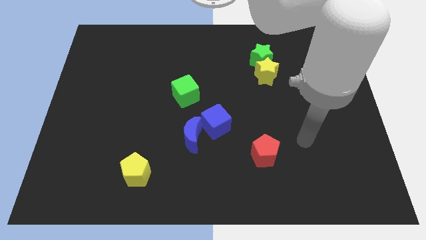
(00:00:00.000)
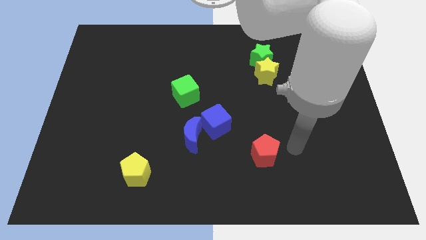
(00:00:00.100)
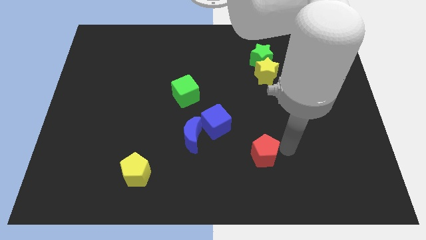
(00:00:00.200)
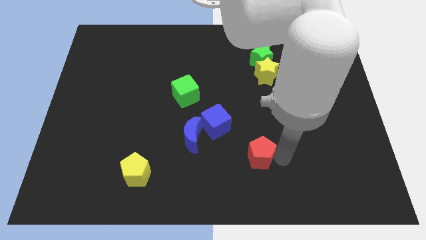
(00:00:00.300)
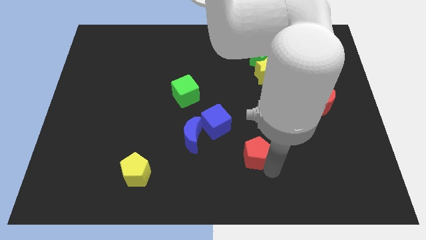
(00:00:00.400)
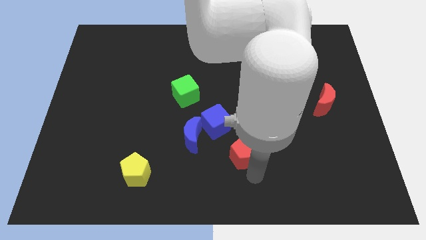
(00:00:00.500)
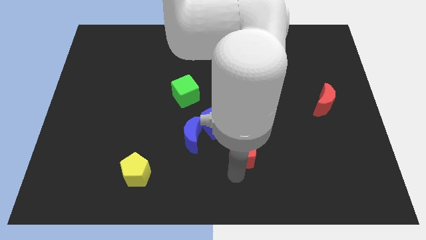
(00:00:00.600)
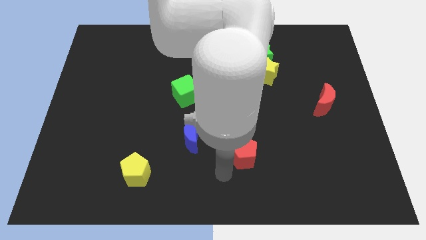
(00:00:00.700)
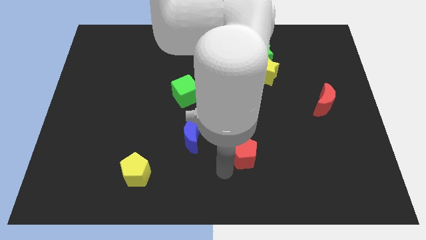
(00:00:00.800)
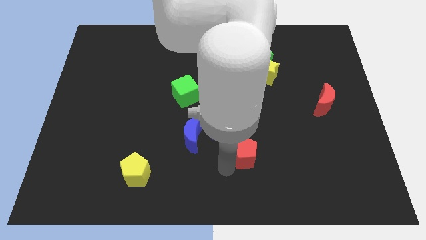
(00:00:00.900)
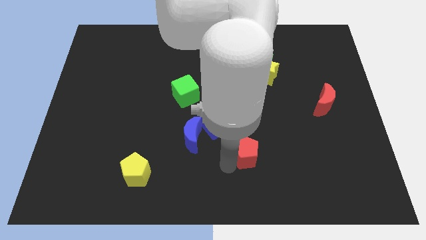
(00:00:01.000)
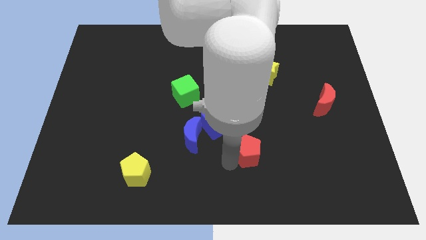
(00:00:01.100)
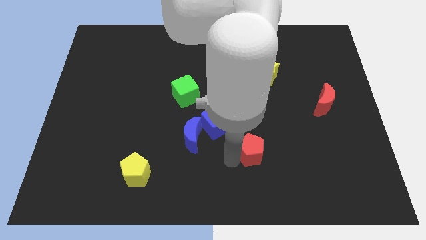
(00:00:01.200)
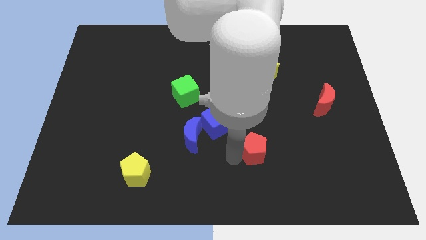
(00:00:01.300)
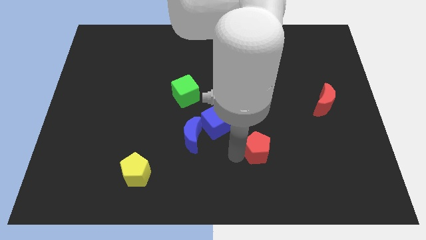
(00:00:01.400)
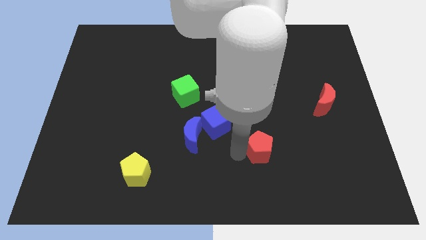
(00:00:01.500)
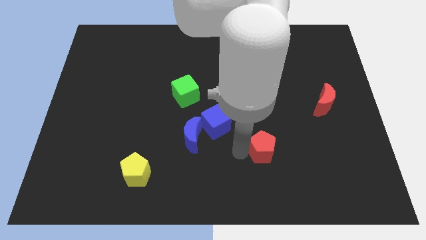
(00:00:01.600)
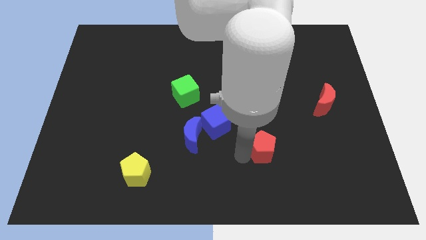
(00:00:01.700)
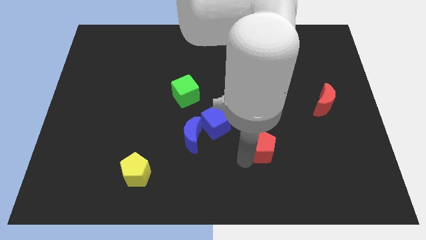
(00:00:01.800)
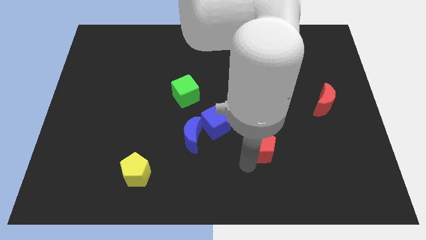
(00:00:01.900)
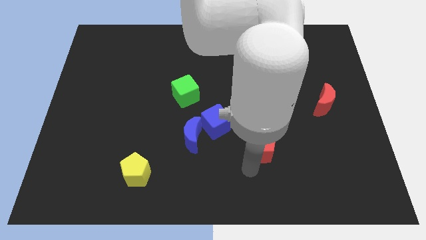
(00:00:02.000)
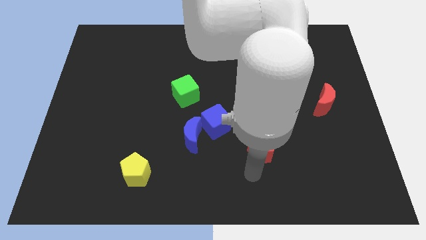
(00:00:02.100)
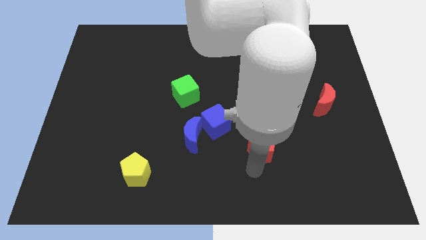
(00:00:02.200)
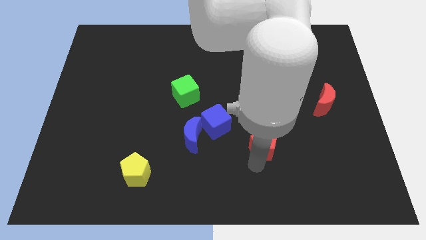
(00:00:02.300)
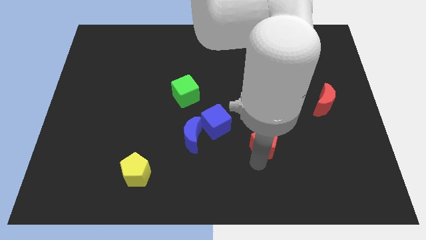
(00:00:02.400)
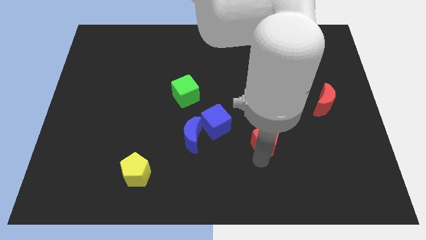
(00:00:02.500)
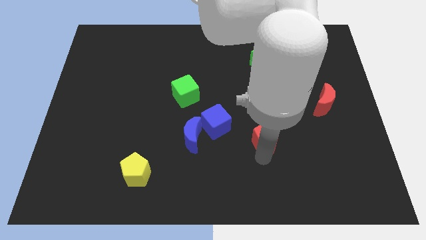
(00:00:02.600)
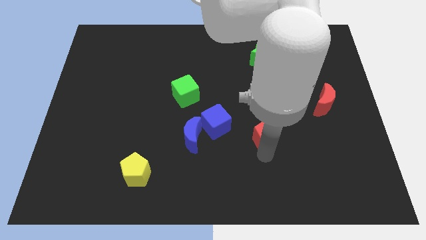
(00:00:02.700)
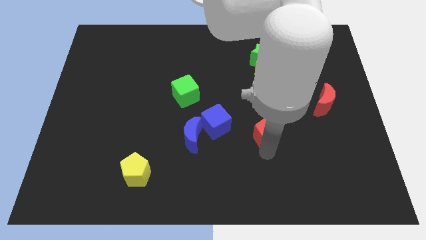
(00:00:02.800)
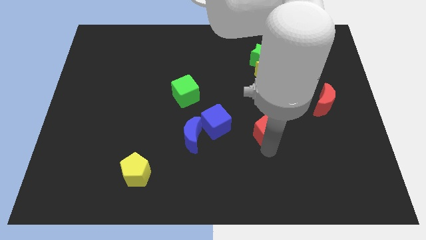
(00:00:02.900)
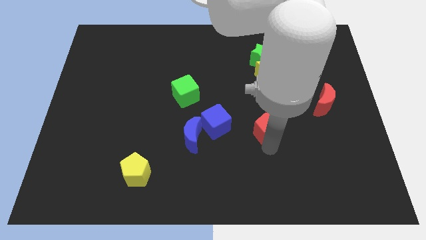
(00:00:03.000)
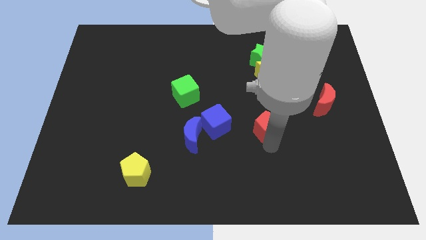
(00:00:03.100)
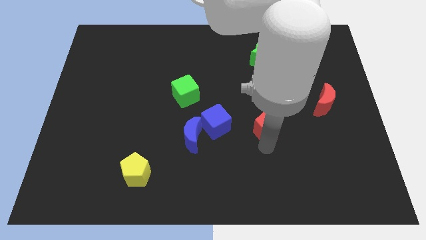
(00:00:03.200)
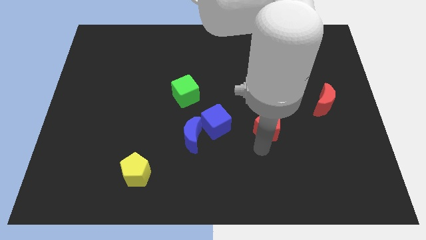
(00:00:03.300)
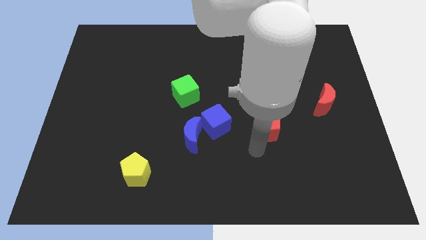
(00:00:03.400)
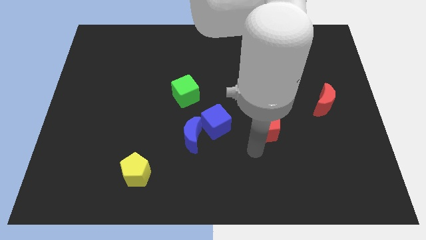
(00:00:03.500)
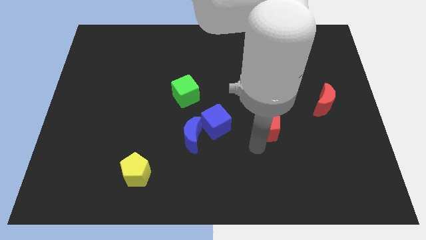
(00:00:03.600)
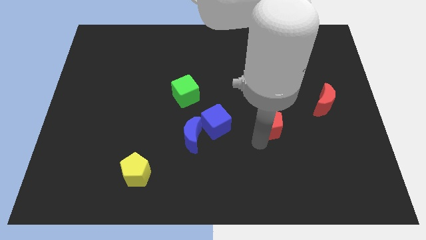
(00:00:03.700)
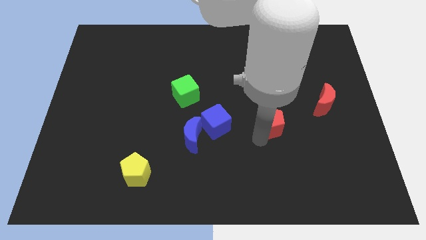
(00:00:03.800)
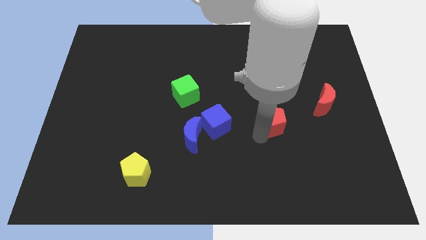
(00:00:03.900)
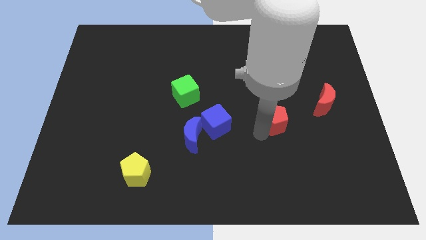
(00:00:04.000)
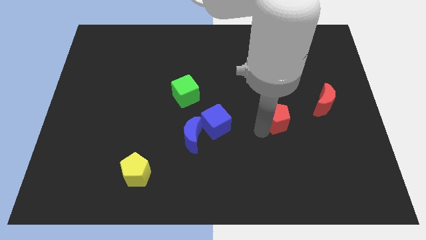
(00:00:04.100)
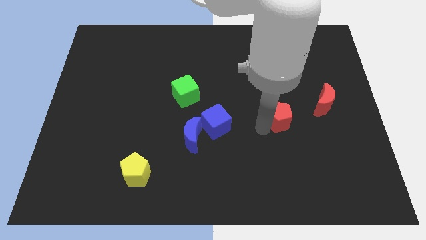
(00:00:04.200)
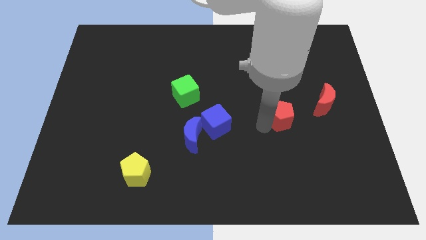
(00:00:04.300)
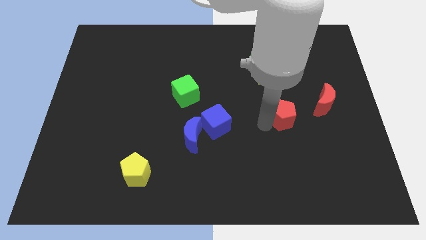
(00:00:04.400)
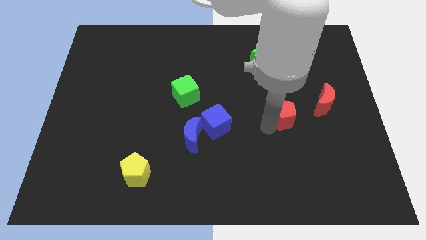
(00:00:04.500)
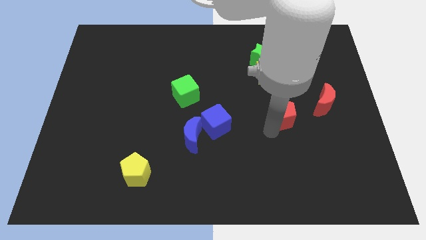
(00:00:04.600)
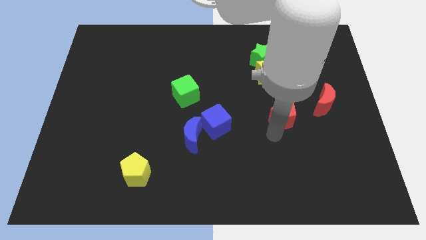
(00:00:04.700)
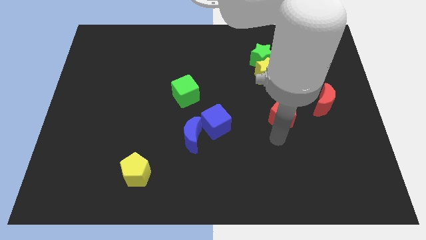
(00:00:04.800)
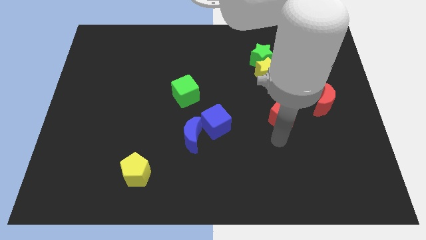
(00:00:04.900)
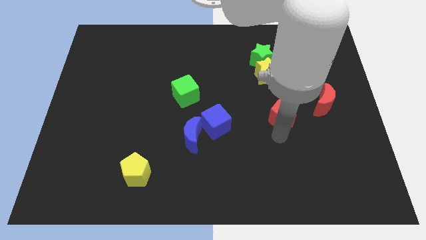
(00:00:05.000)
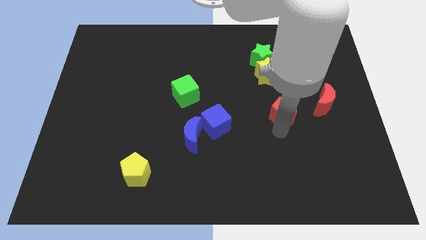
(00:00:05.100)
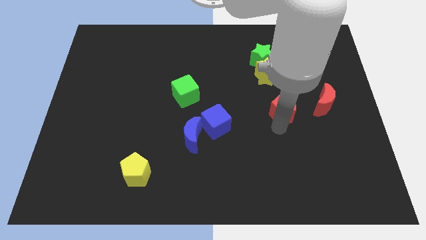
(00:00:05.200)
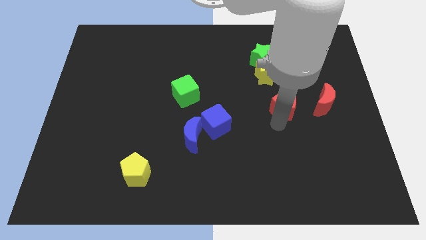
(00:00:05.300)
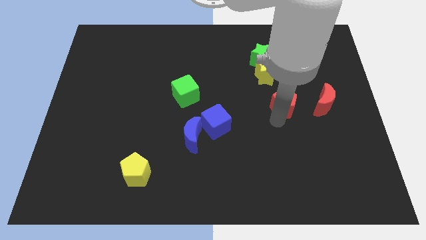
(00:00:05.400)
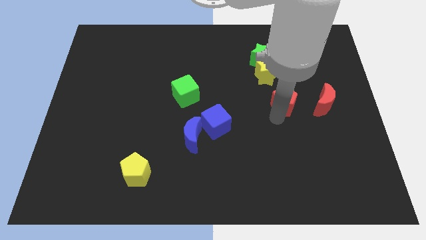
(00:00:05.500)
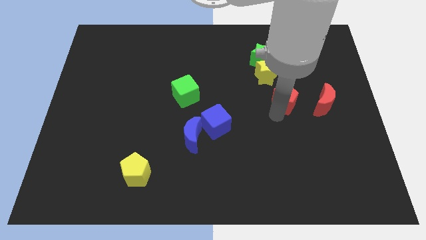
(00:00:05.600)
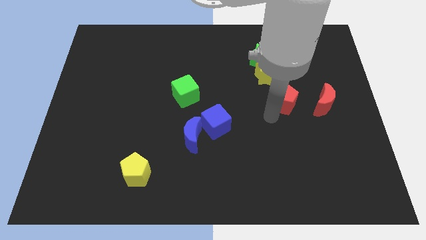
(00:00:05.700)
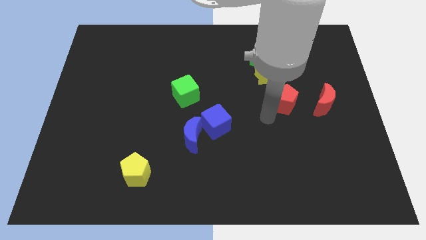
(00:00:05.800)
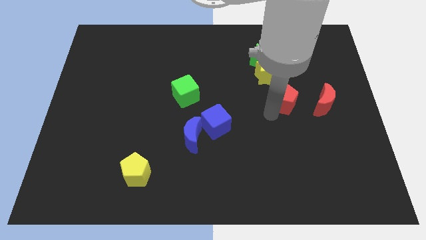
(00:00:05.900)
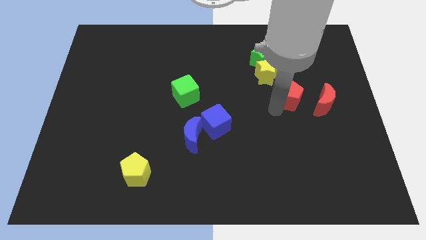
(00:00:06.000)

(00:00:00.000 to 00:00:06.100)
slide the red pentagon to the top left of the red moon
